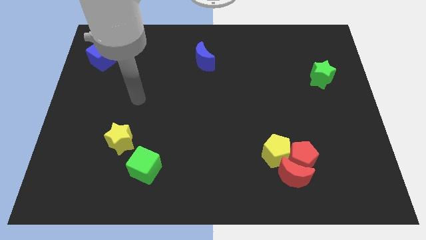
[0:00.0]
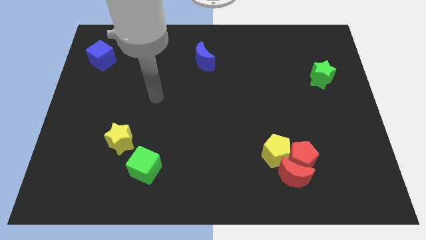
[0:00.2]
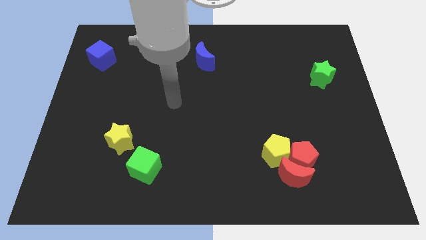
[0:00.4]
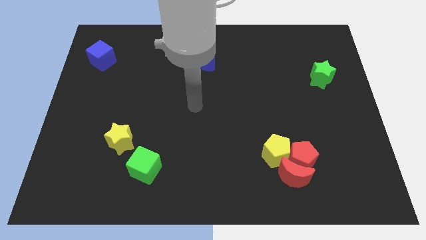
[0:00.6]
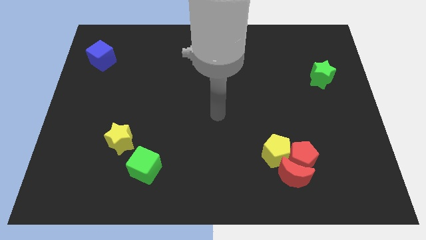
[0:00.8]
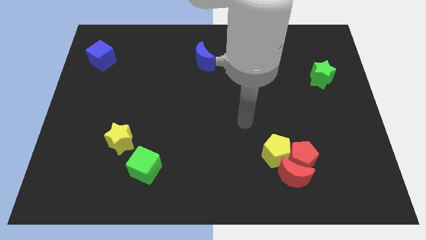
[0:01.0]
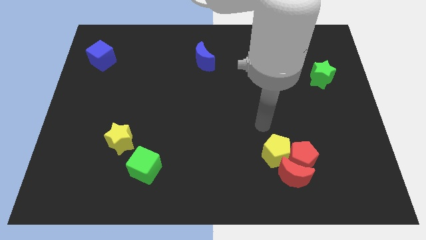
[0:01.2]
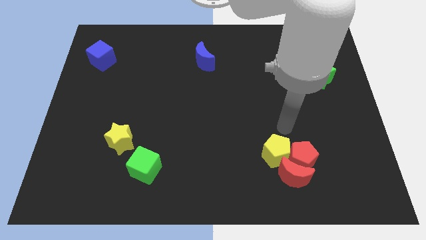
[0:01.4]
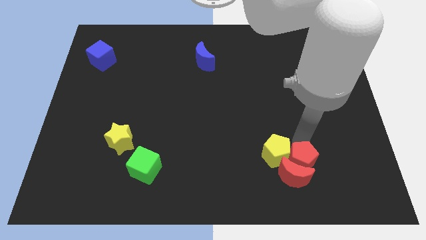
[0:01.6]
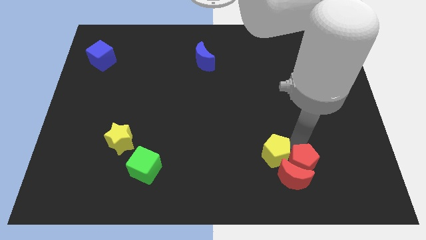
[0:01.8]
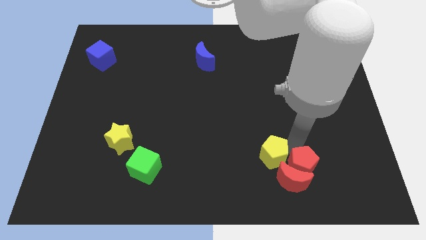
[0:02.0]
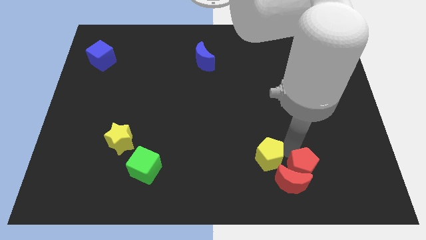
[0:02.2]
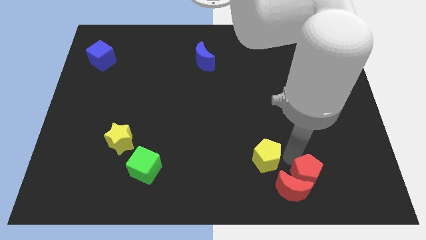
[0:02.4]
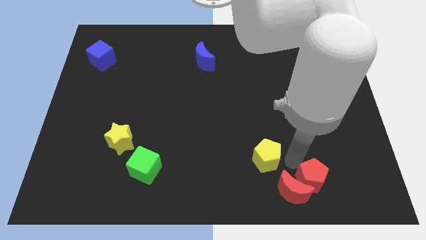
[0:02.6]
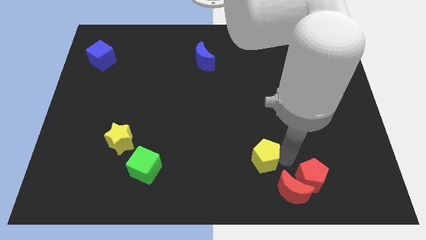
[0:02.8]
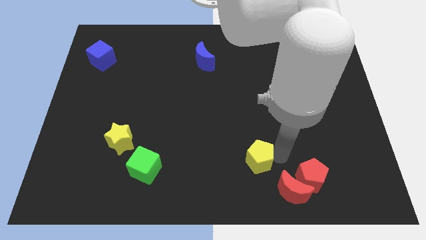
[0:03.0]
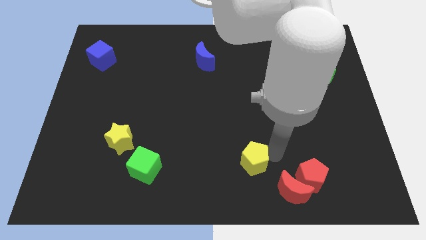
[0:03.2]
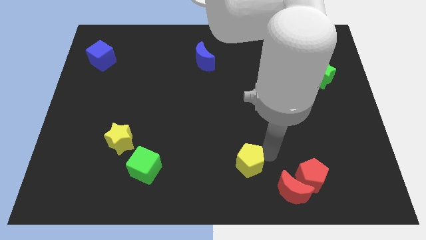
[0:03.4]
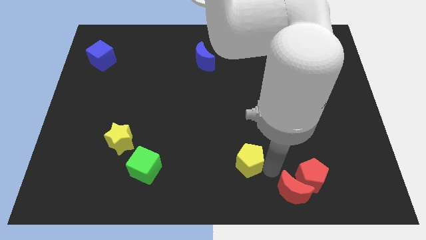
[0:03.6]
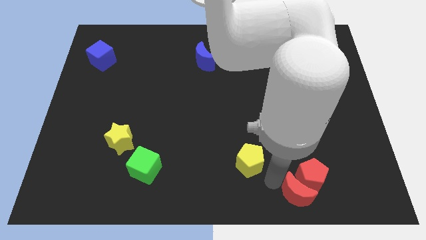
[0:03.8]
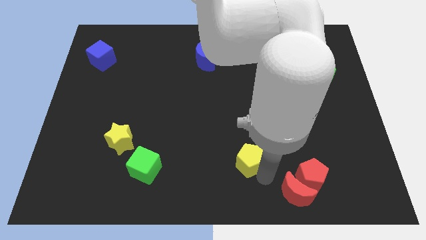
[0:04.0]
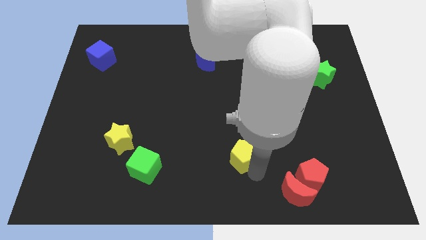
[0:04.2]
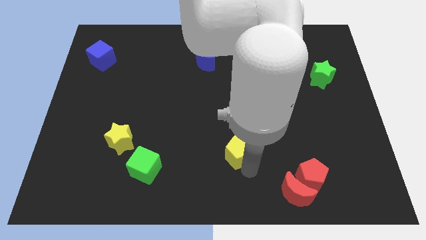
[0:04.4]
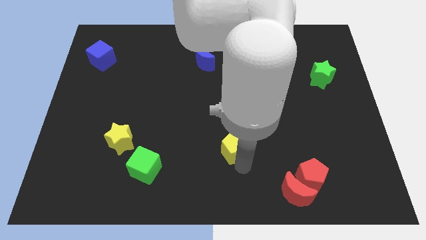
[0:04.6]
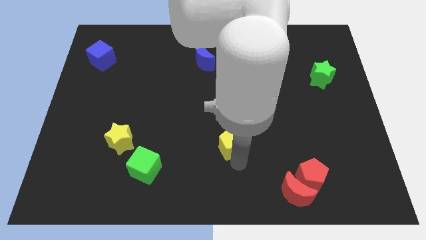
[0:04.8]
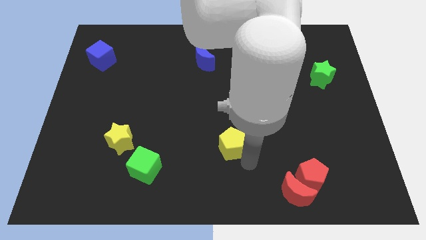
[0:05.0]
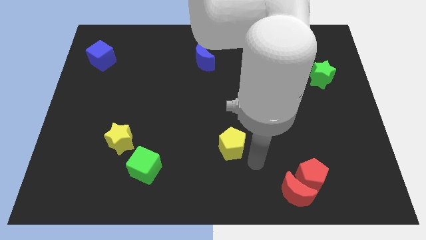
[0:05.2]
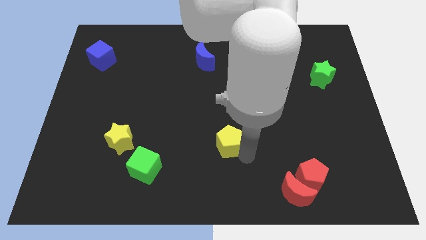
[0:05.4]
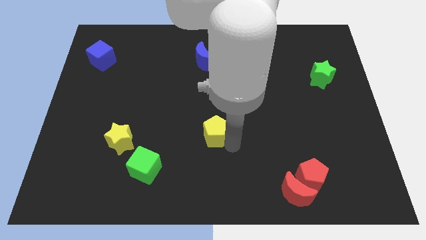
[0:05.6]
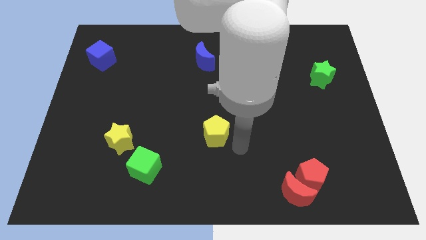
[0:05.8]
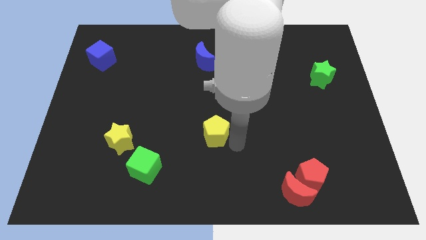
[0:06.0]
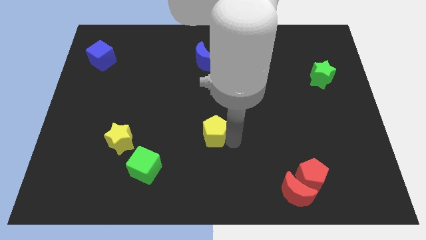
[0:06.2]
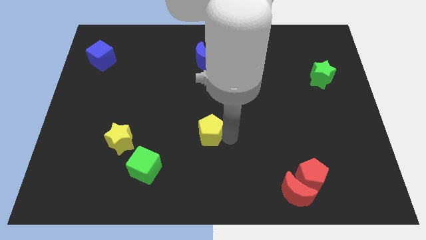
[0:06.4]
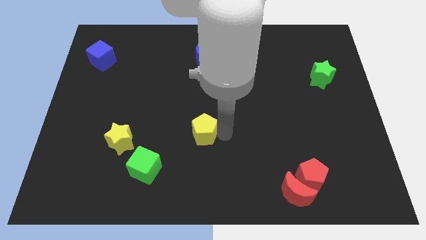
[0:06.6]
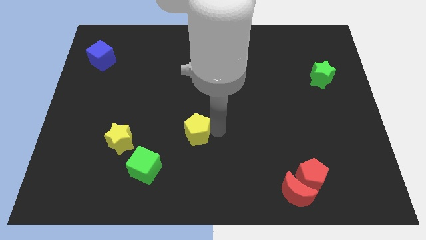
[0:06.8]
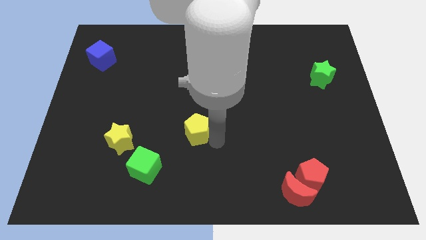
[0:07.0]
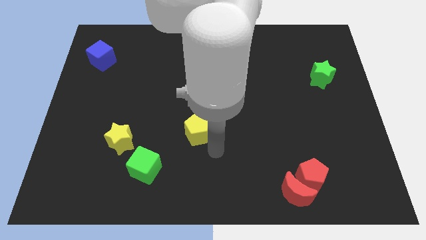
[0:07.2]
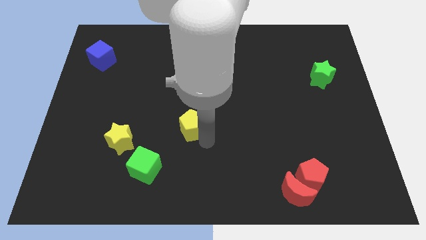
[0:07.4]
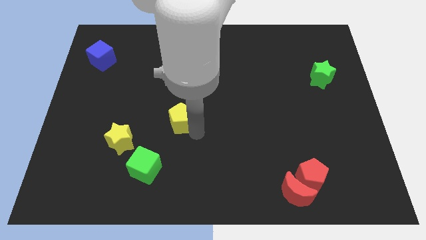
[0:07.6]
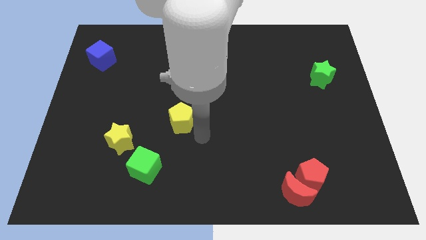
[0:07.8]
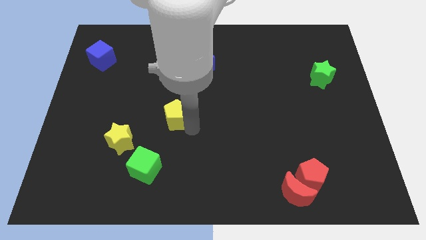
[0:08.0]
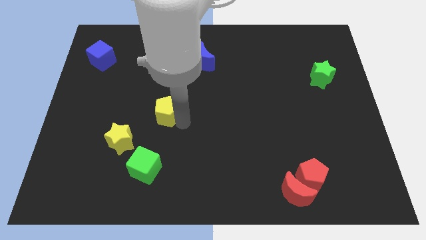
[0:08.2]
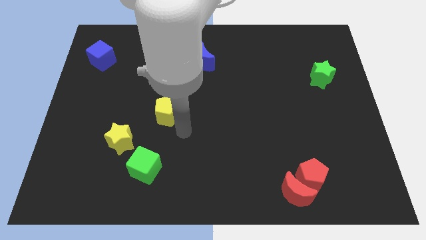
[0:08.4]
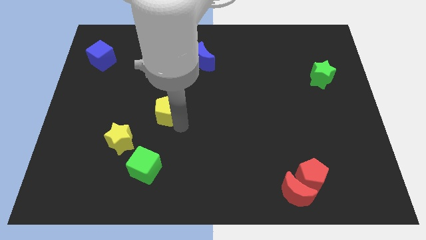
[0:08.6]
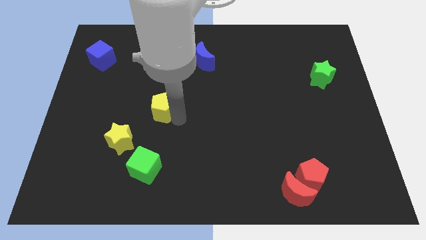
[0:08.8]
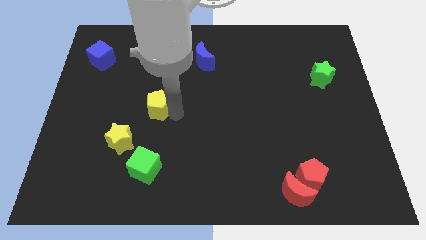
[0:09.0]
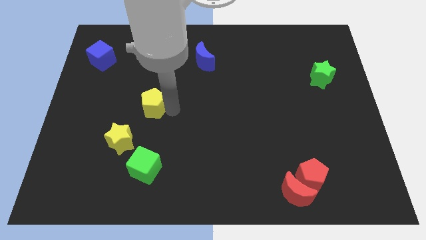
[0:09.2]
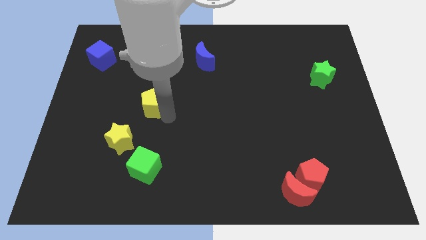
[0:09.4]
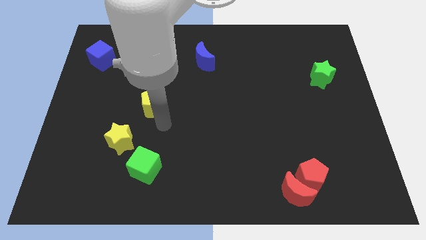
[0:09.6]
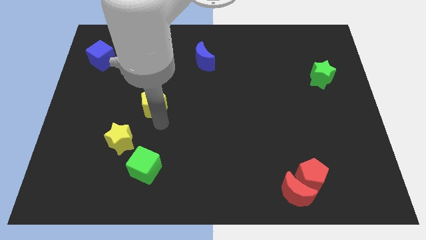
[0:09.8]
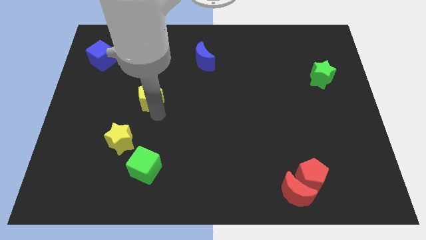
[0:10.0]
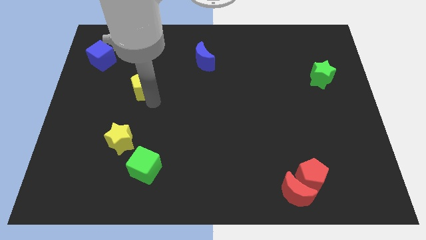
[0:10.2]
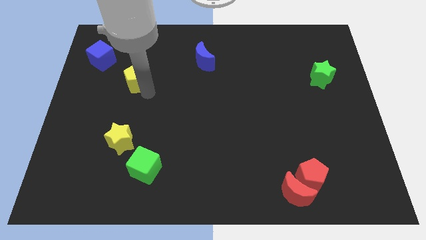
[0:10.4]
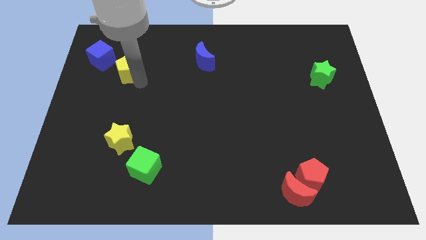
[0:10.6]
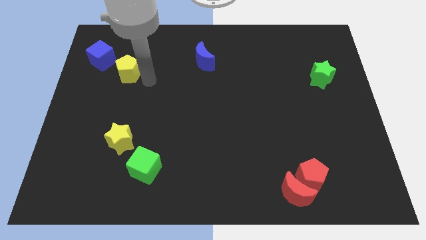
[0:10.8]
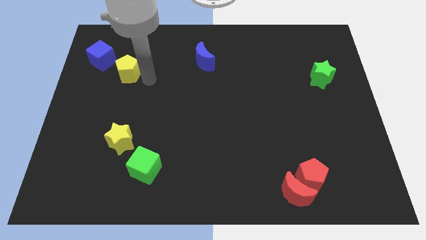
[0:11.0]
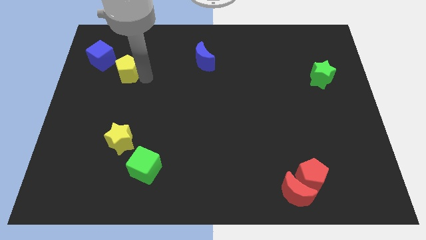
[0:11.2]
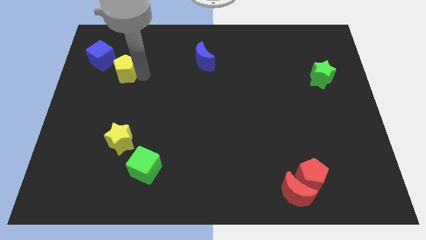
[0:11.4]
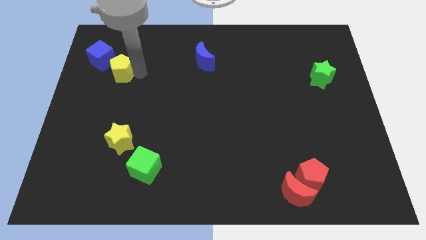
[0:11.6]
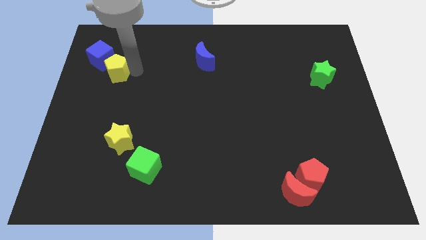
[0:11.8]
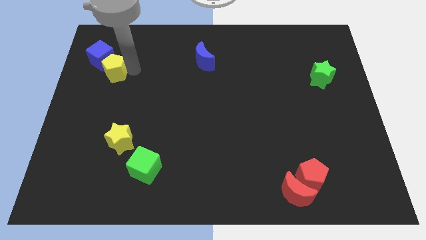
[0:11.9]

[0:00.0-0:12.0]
slide the yellow pentagon close to the blue cube

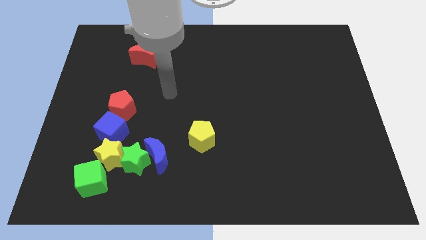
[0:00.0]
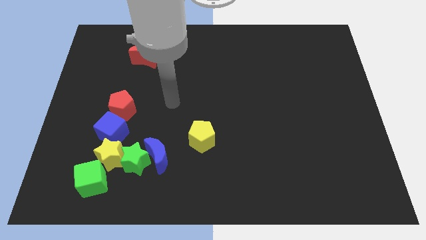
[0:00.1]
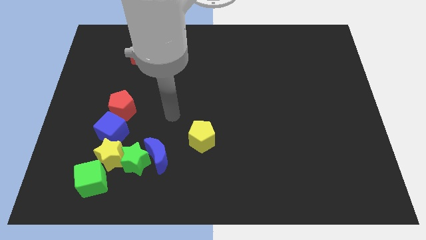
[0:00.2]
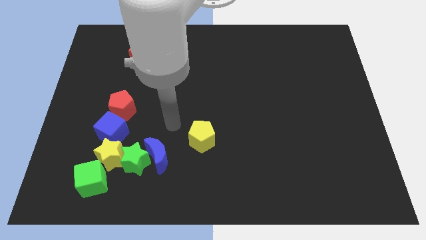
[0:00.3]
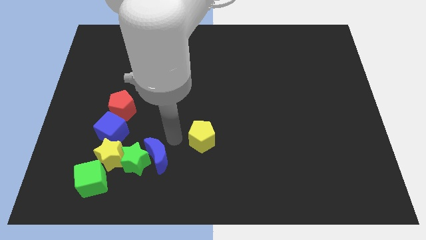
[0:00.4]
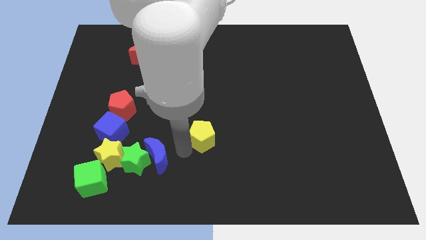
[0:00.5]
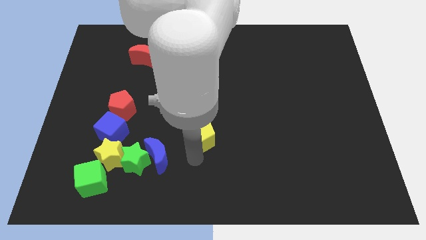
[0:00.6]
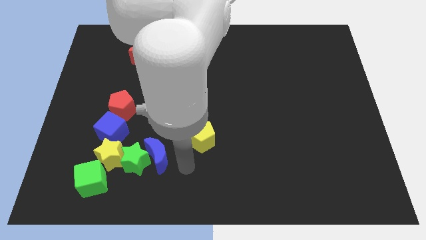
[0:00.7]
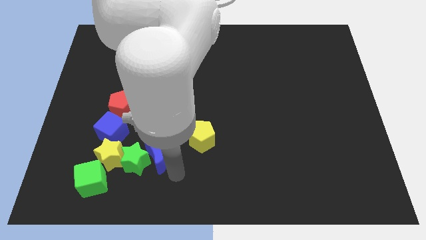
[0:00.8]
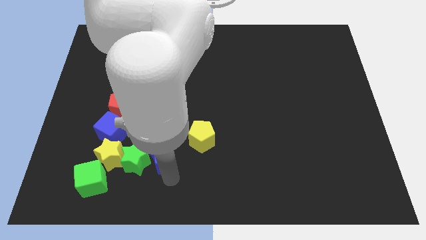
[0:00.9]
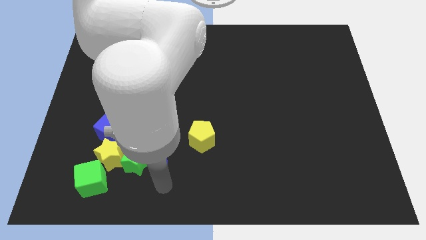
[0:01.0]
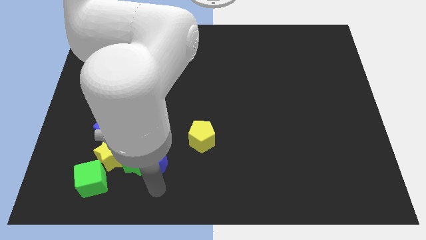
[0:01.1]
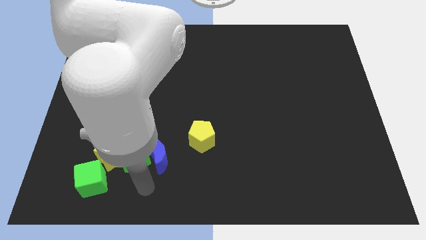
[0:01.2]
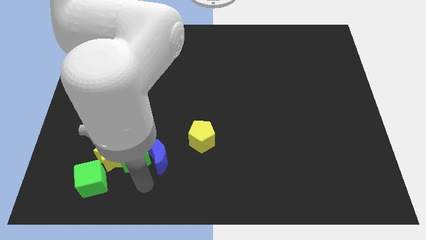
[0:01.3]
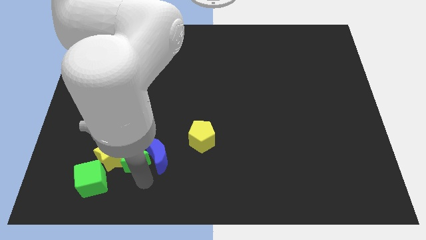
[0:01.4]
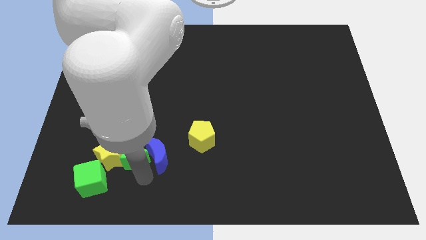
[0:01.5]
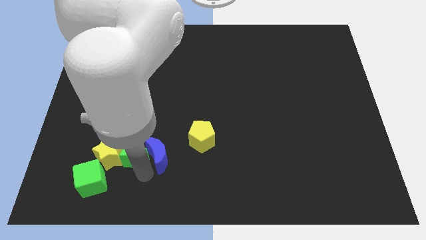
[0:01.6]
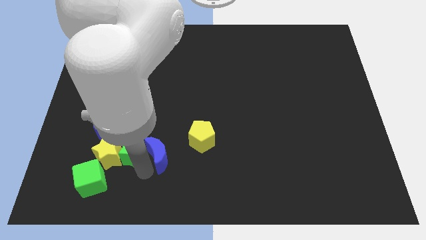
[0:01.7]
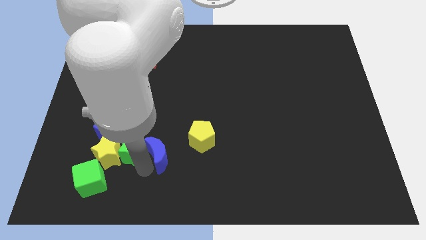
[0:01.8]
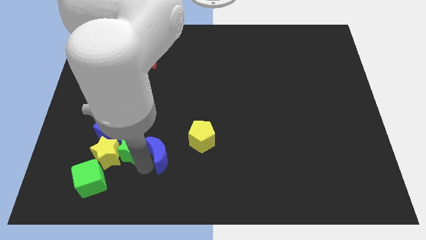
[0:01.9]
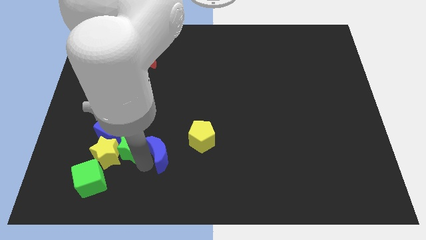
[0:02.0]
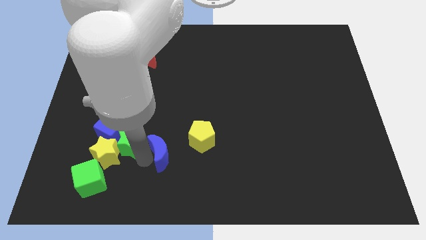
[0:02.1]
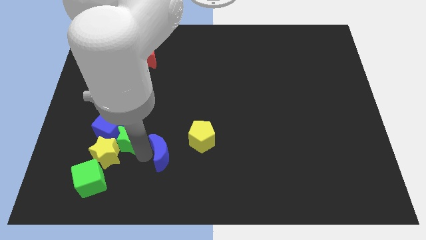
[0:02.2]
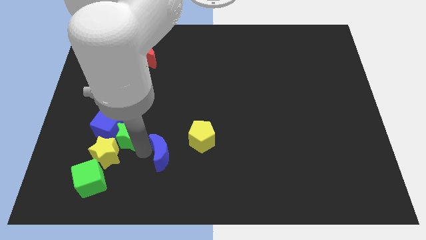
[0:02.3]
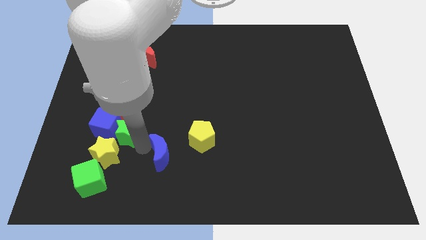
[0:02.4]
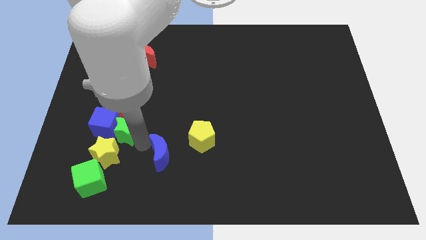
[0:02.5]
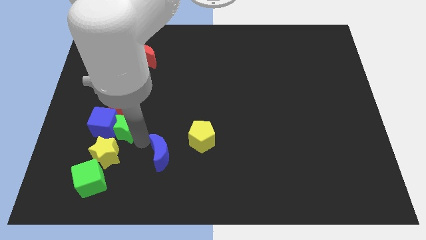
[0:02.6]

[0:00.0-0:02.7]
put the green star next to the red pentagon
